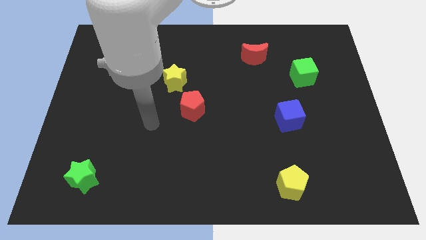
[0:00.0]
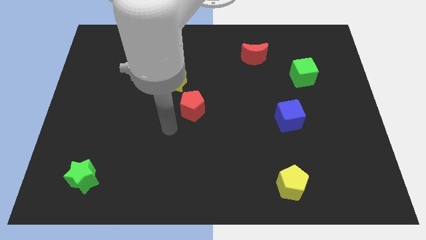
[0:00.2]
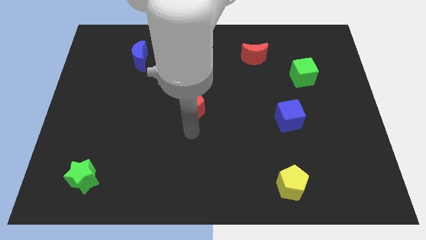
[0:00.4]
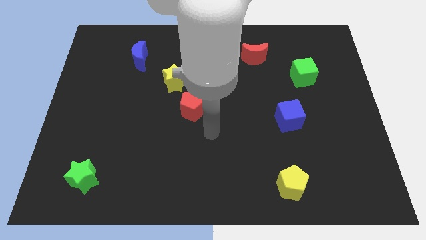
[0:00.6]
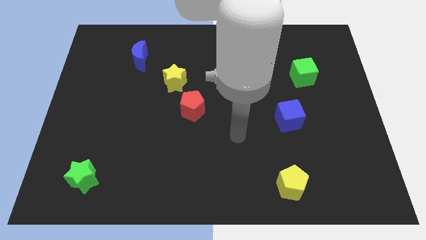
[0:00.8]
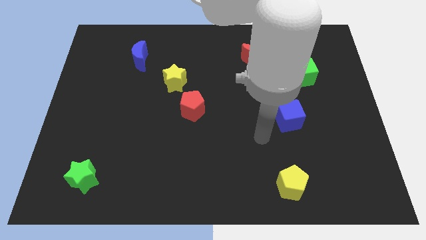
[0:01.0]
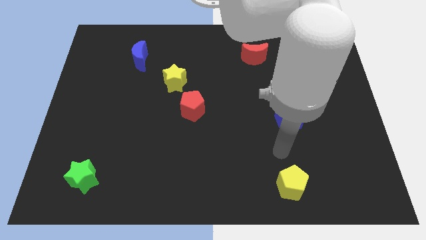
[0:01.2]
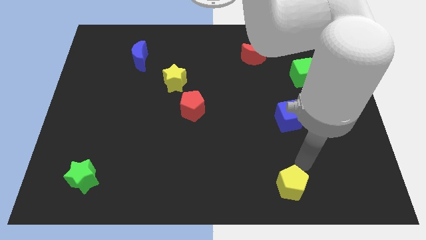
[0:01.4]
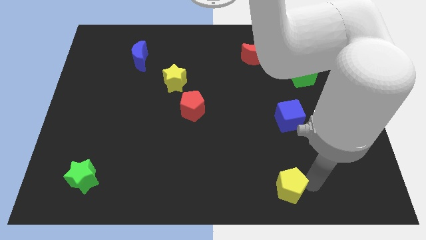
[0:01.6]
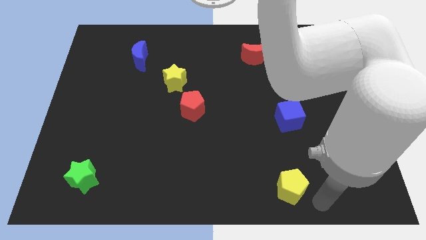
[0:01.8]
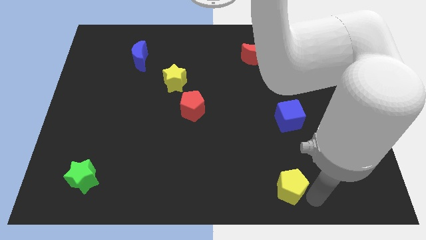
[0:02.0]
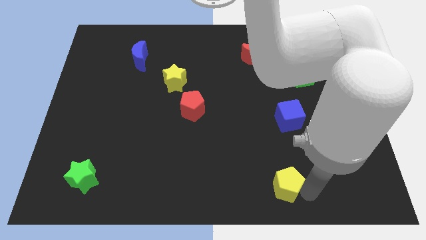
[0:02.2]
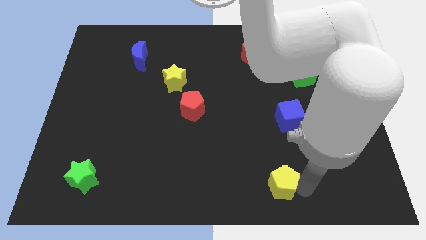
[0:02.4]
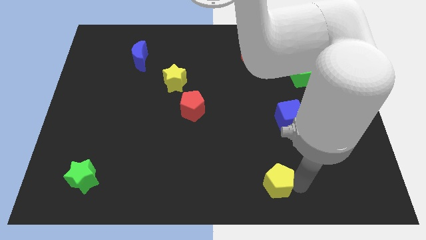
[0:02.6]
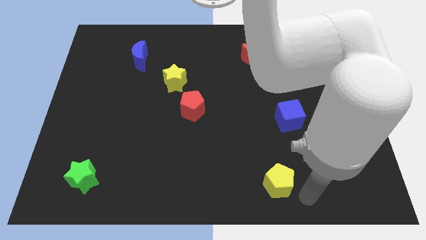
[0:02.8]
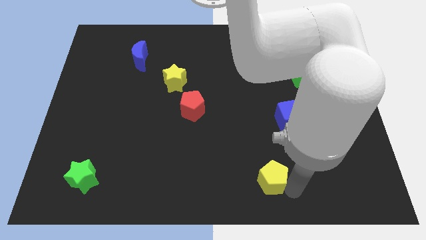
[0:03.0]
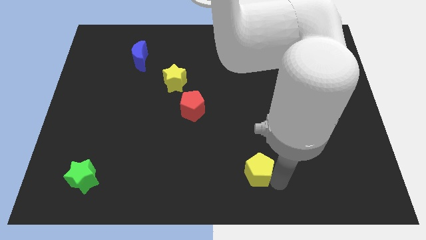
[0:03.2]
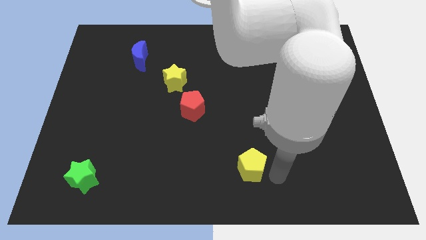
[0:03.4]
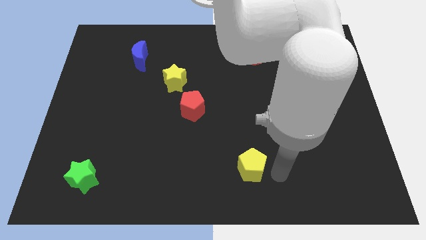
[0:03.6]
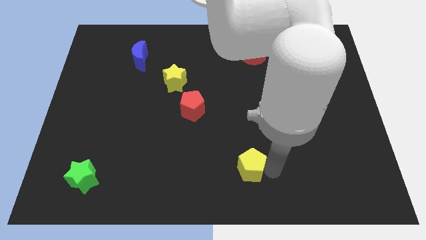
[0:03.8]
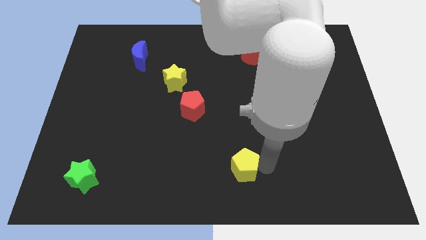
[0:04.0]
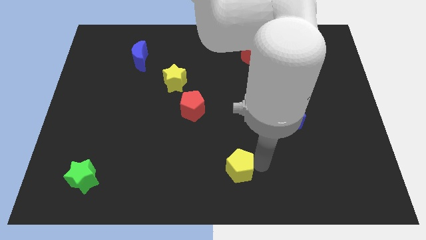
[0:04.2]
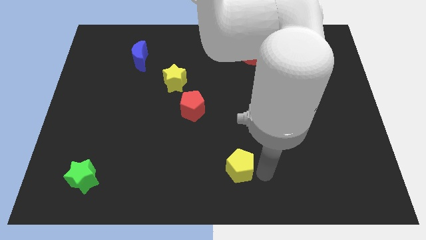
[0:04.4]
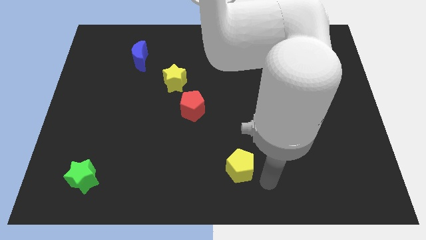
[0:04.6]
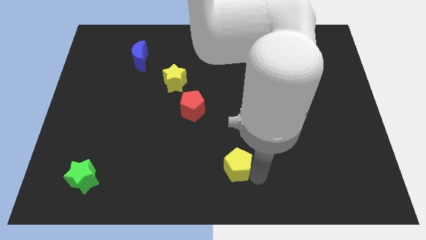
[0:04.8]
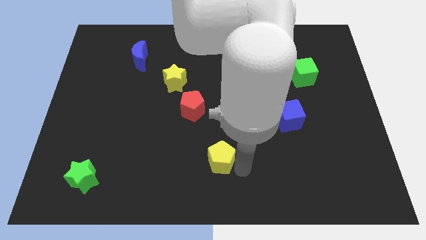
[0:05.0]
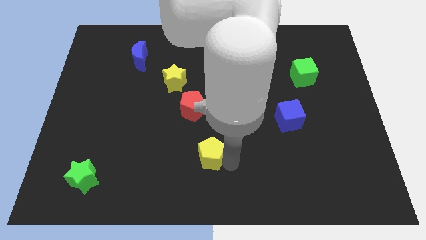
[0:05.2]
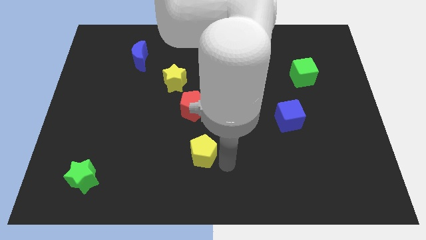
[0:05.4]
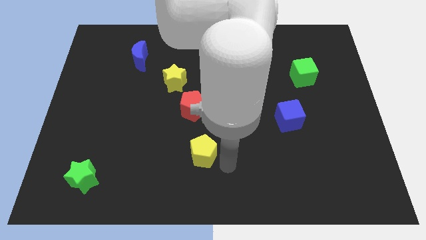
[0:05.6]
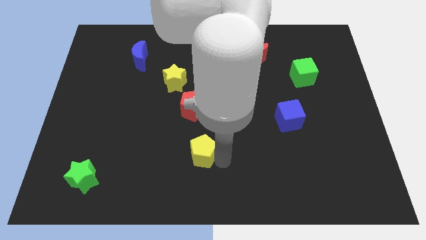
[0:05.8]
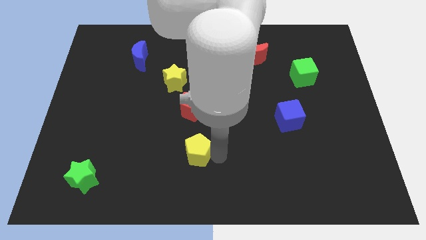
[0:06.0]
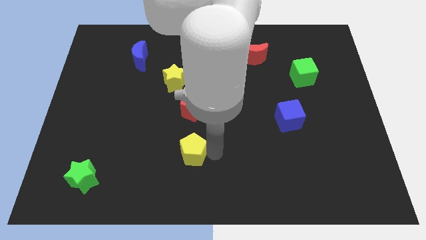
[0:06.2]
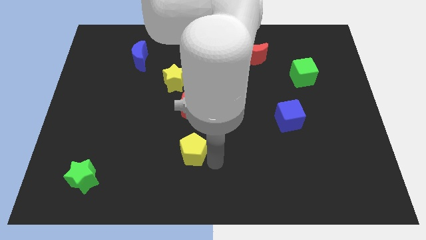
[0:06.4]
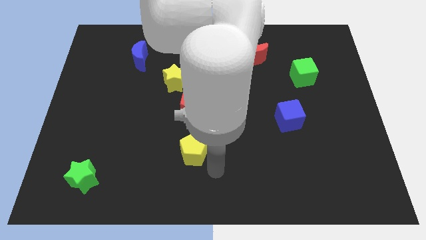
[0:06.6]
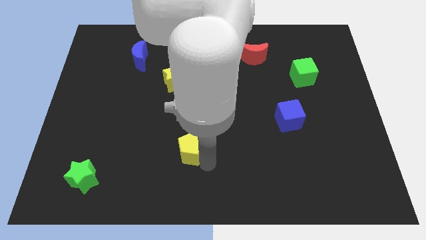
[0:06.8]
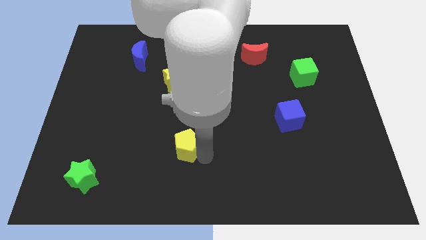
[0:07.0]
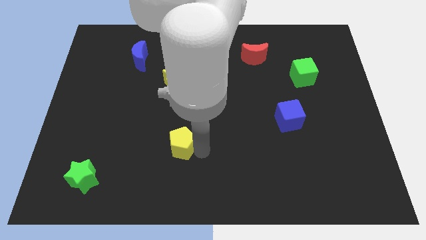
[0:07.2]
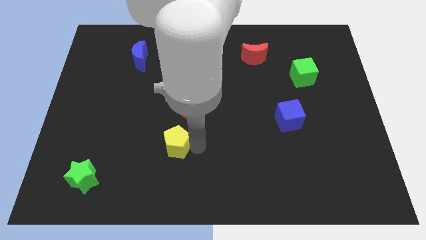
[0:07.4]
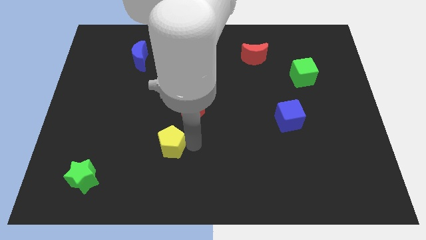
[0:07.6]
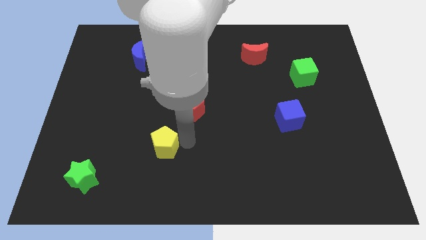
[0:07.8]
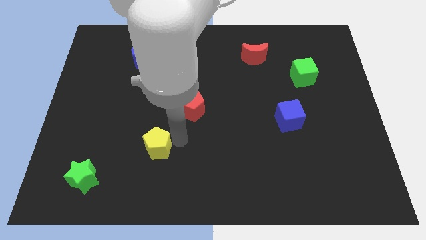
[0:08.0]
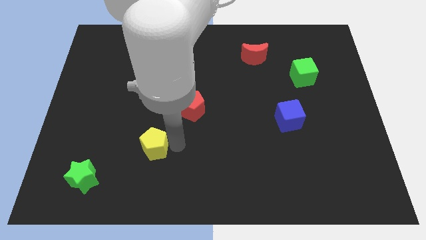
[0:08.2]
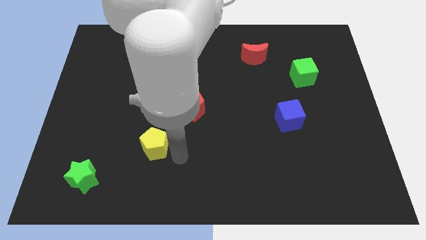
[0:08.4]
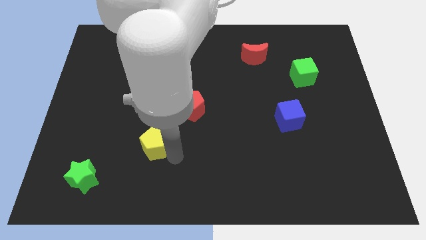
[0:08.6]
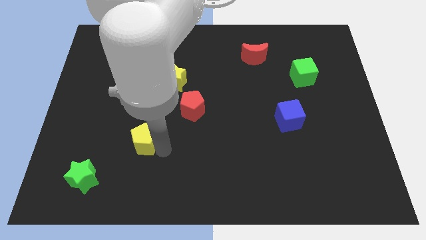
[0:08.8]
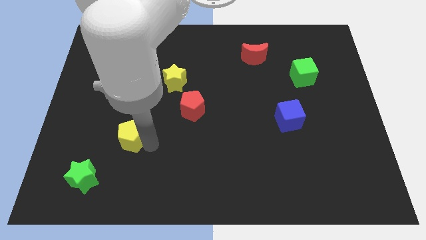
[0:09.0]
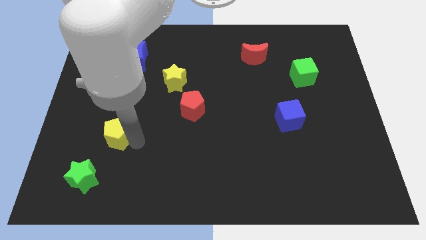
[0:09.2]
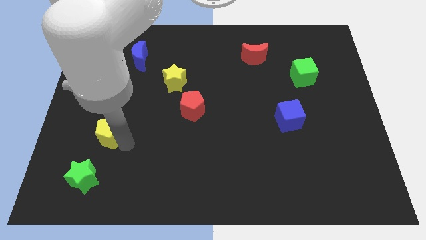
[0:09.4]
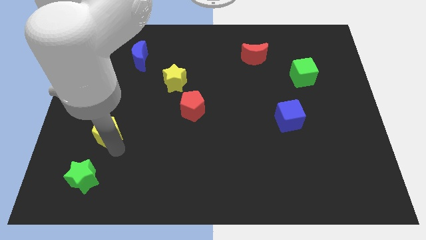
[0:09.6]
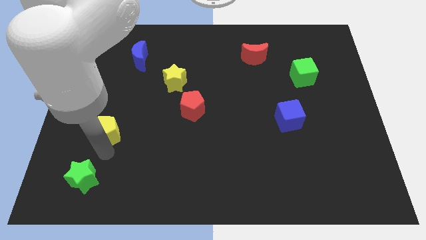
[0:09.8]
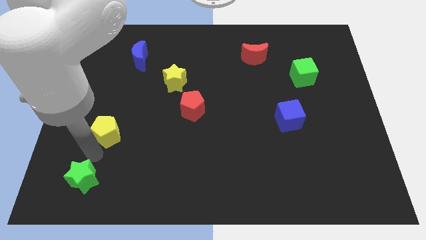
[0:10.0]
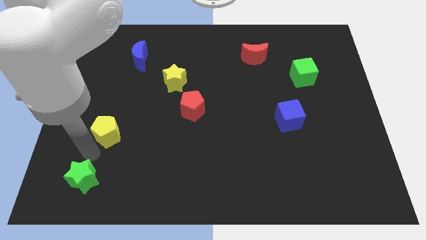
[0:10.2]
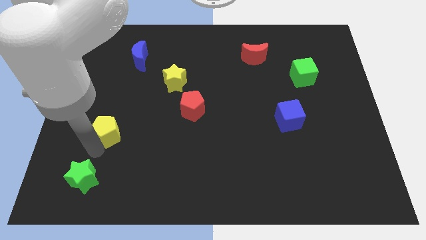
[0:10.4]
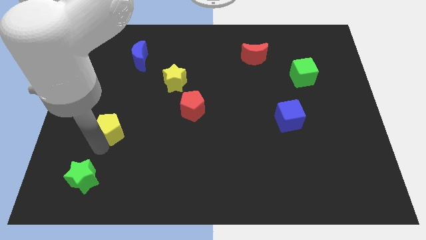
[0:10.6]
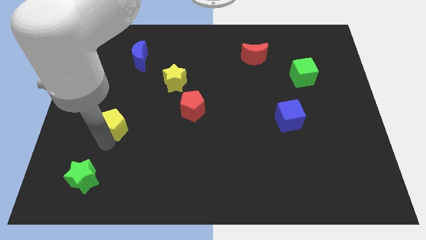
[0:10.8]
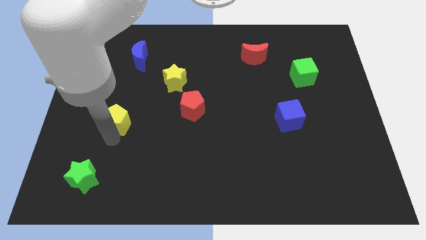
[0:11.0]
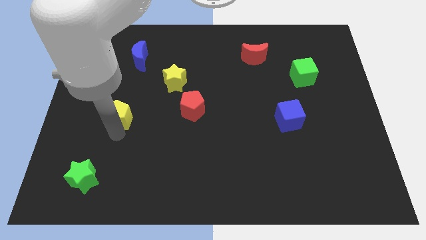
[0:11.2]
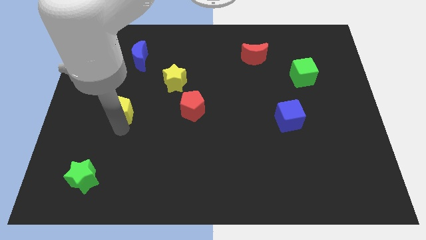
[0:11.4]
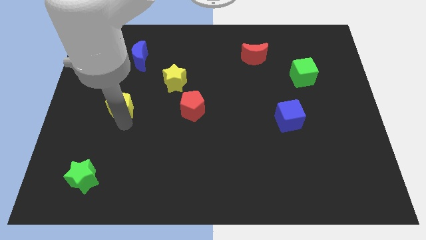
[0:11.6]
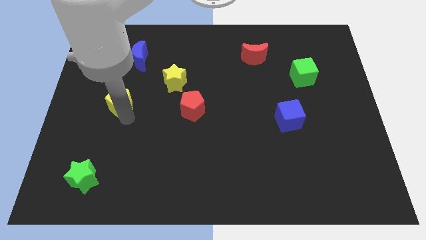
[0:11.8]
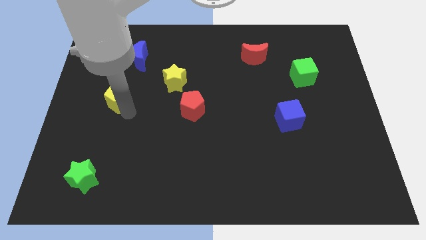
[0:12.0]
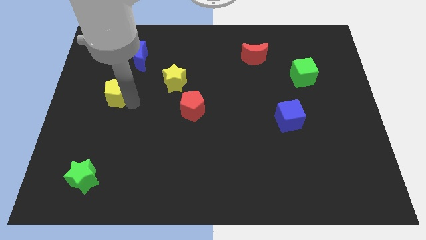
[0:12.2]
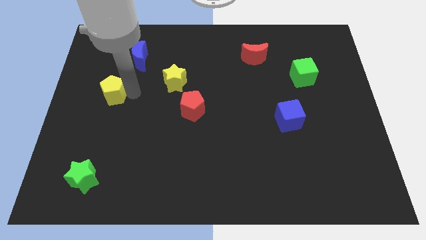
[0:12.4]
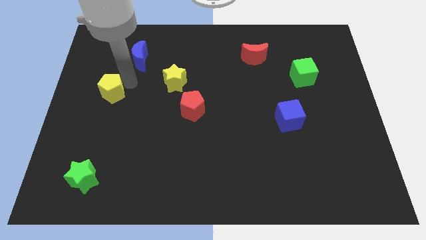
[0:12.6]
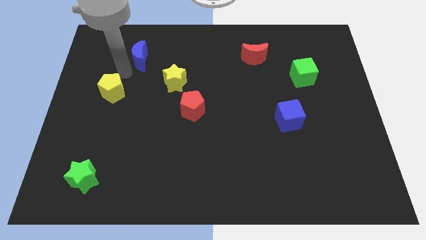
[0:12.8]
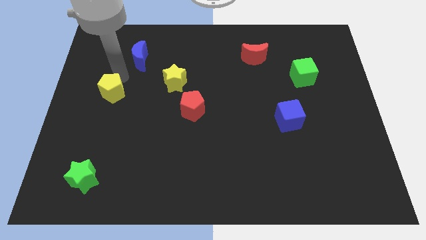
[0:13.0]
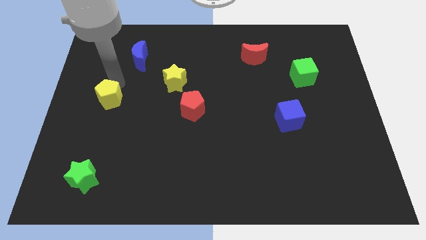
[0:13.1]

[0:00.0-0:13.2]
push the yellow pentagon to the left side of the board
